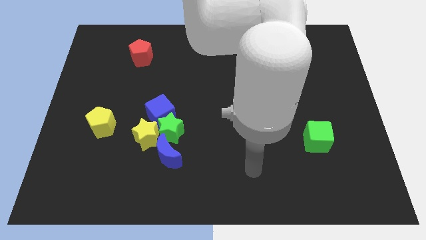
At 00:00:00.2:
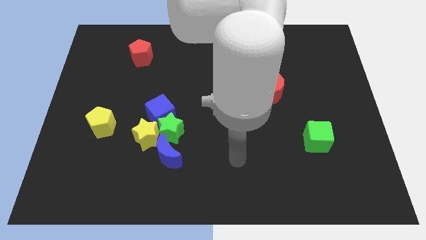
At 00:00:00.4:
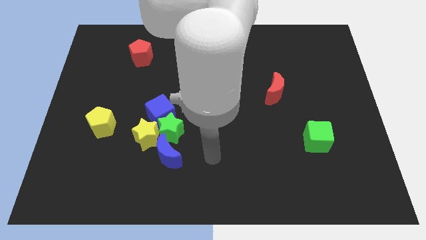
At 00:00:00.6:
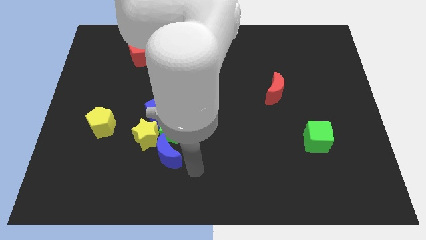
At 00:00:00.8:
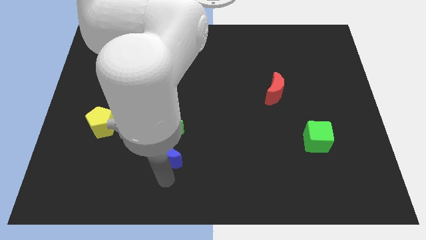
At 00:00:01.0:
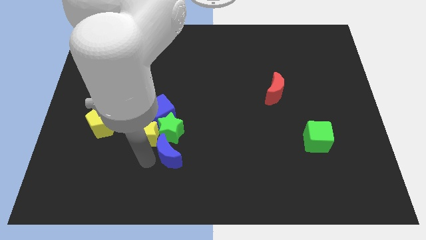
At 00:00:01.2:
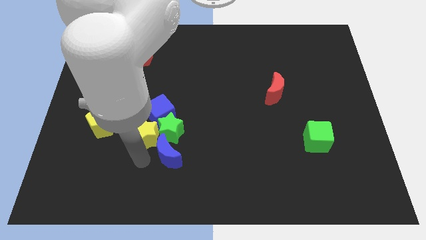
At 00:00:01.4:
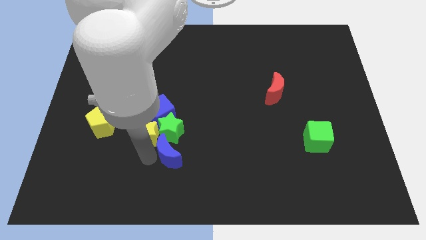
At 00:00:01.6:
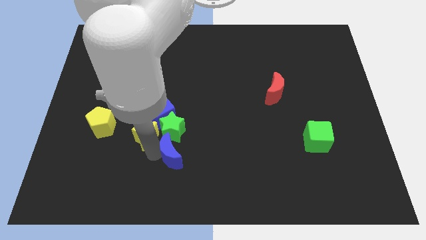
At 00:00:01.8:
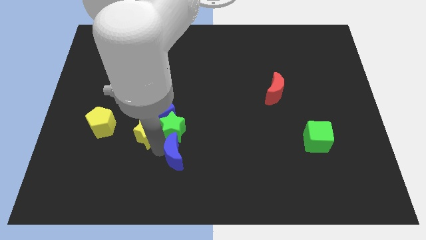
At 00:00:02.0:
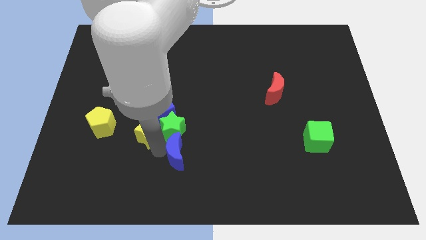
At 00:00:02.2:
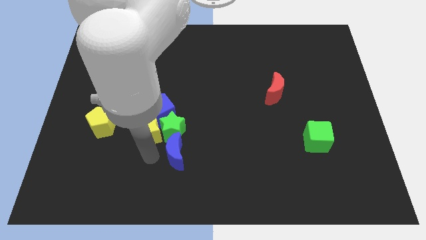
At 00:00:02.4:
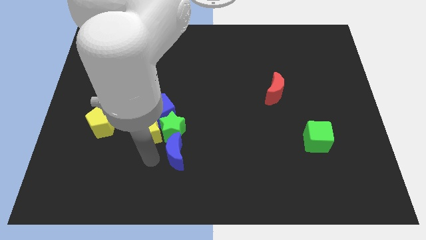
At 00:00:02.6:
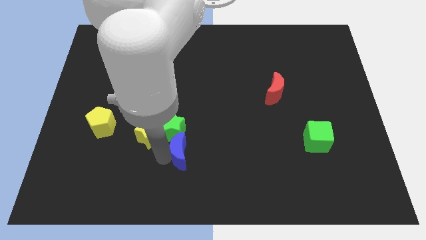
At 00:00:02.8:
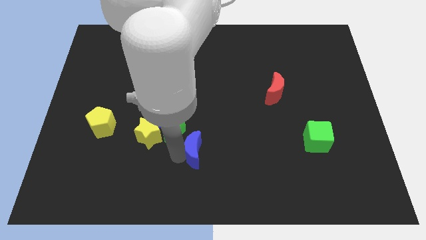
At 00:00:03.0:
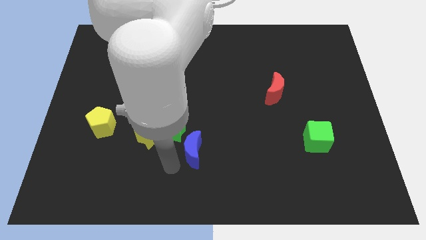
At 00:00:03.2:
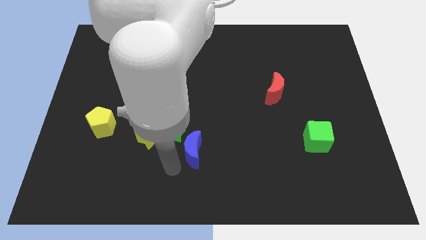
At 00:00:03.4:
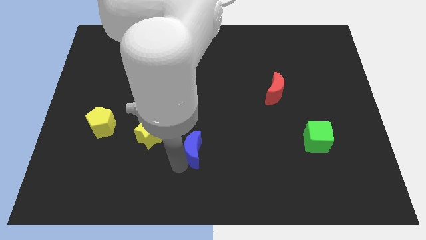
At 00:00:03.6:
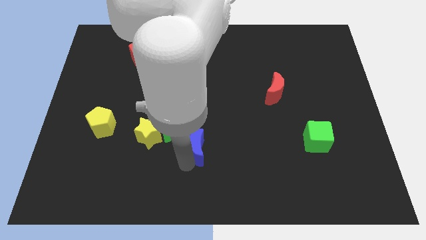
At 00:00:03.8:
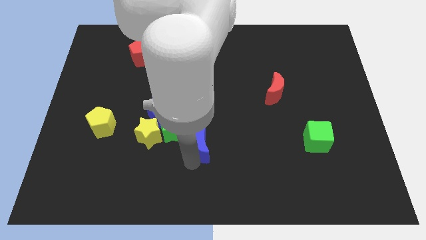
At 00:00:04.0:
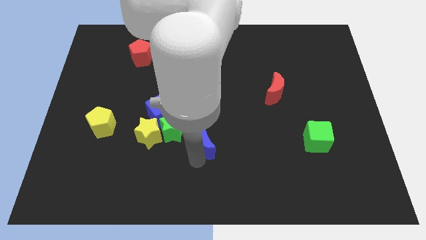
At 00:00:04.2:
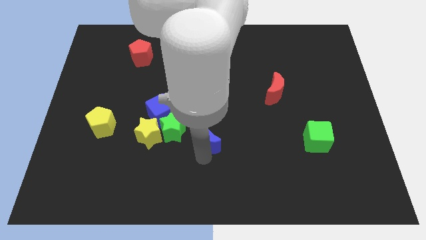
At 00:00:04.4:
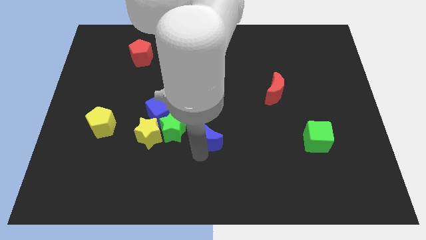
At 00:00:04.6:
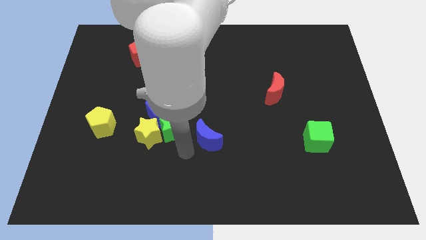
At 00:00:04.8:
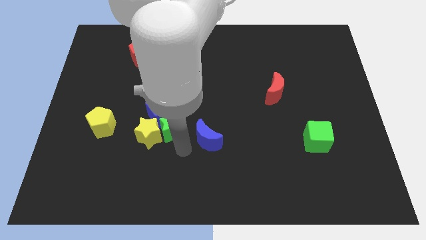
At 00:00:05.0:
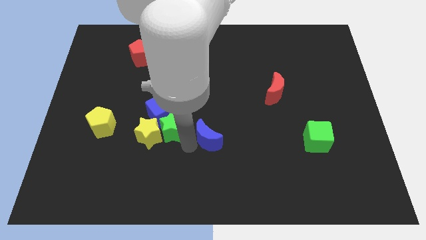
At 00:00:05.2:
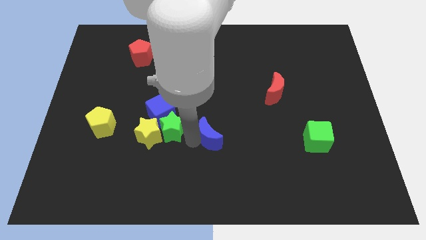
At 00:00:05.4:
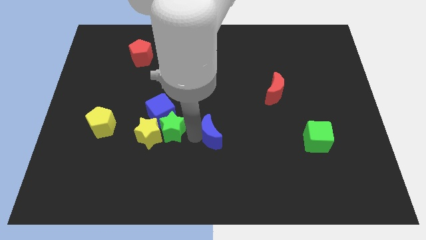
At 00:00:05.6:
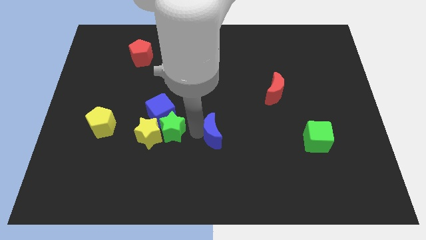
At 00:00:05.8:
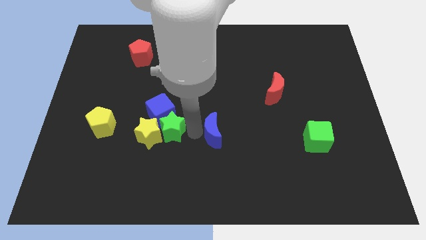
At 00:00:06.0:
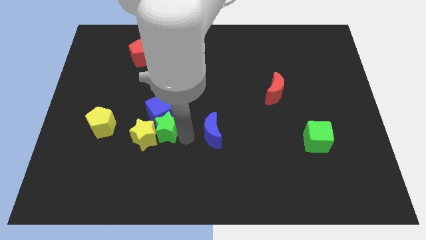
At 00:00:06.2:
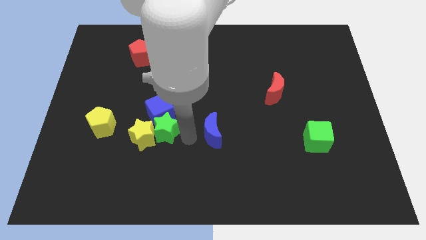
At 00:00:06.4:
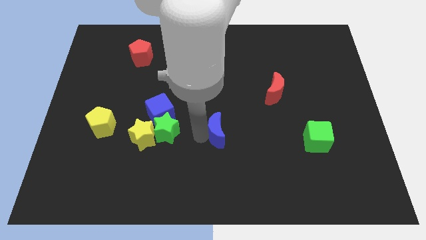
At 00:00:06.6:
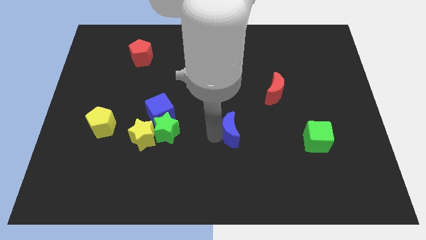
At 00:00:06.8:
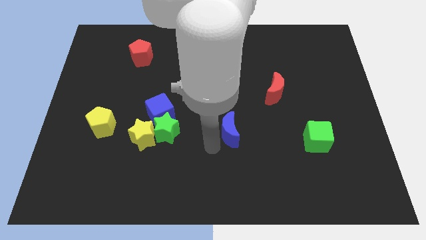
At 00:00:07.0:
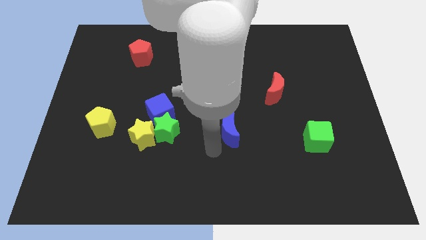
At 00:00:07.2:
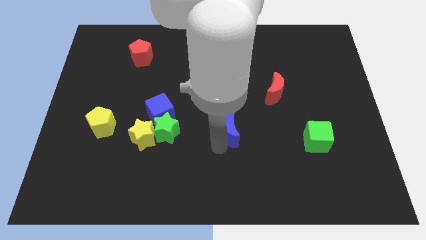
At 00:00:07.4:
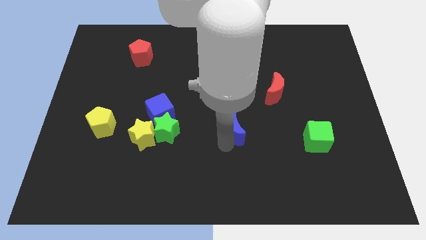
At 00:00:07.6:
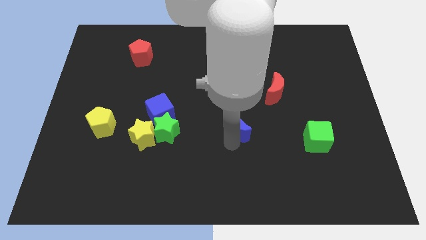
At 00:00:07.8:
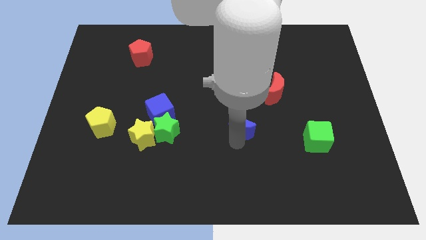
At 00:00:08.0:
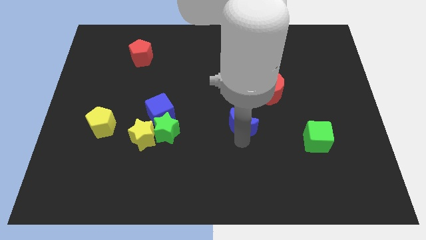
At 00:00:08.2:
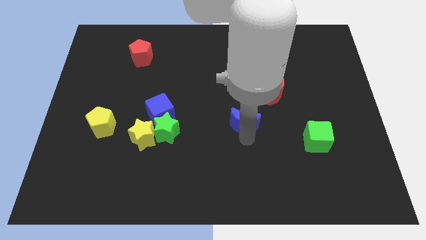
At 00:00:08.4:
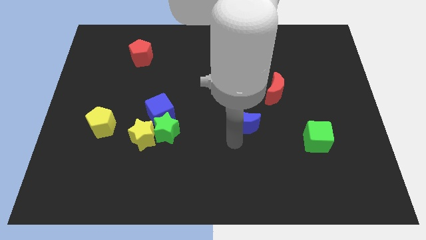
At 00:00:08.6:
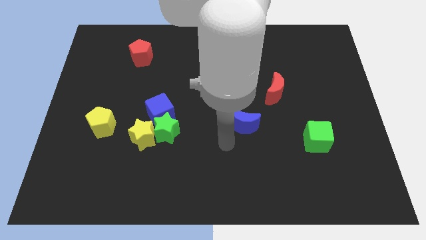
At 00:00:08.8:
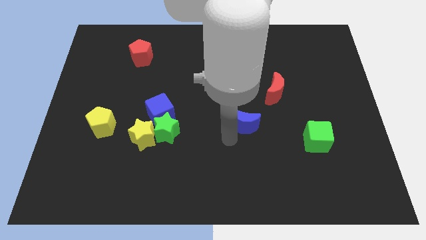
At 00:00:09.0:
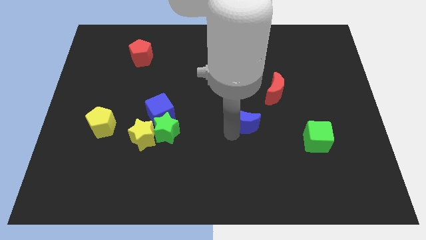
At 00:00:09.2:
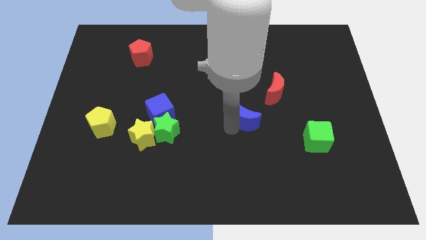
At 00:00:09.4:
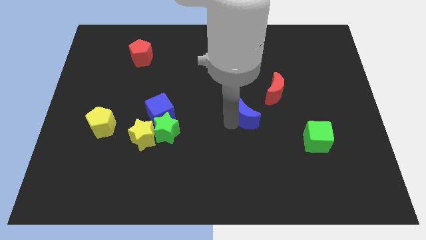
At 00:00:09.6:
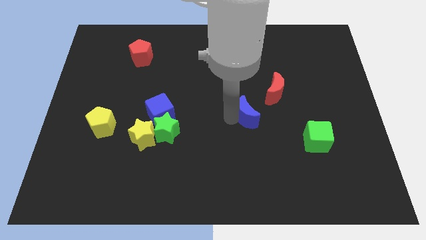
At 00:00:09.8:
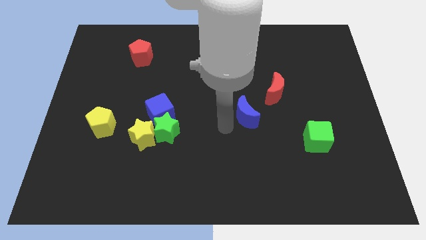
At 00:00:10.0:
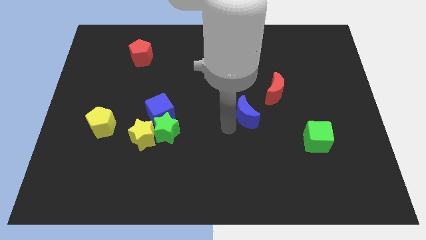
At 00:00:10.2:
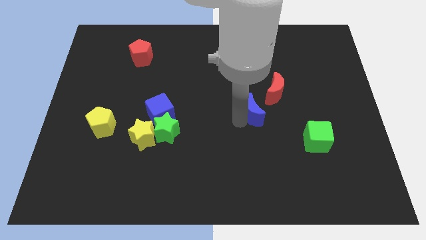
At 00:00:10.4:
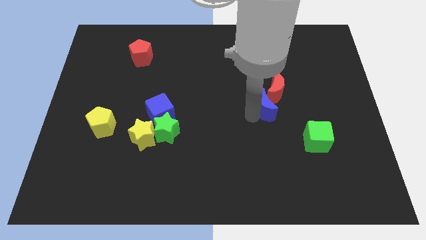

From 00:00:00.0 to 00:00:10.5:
move the blue moon next to the red moon
